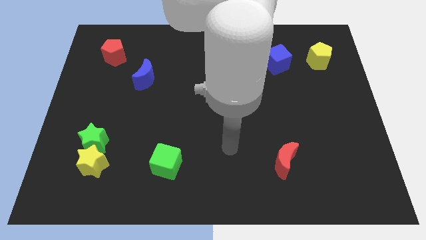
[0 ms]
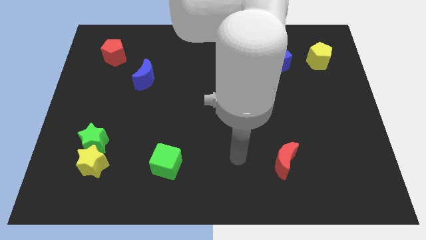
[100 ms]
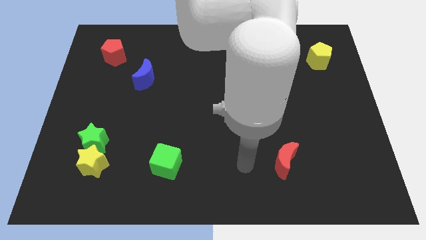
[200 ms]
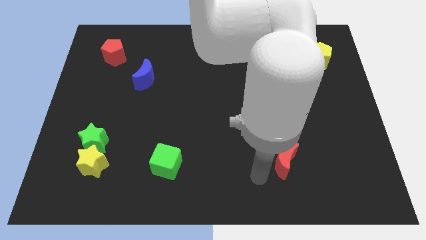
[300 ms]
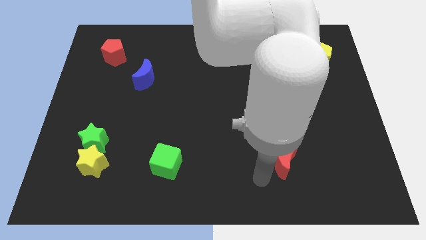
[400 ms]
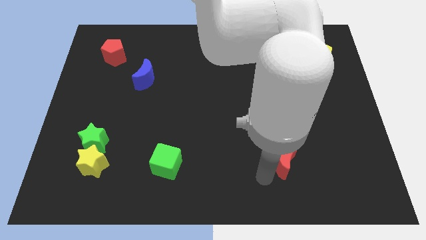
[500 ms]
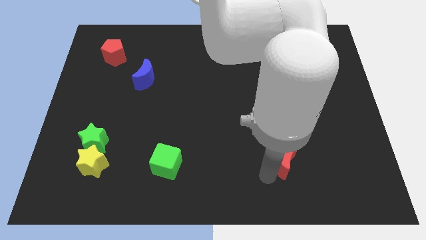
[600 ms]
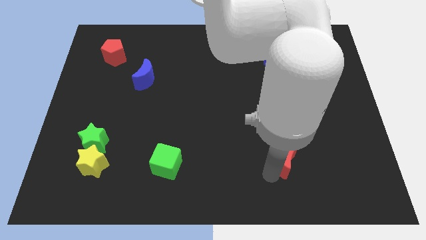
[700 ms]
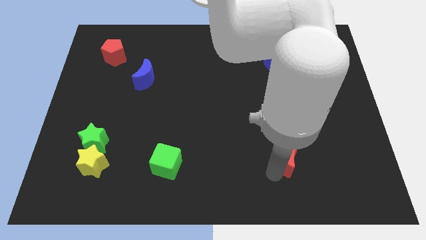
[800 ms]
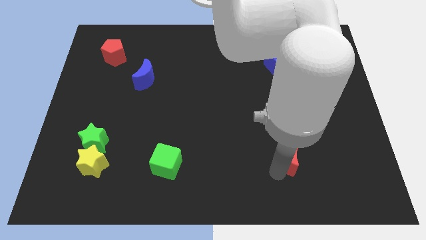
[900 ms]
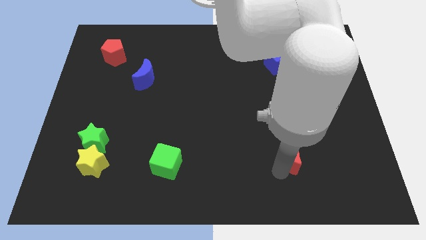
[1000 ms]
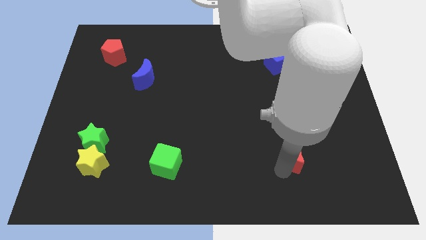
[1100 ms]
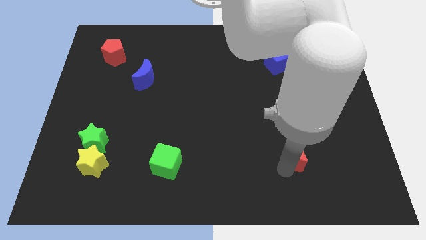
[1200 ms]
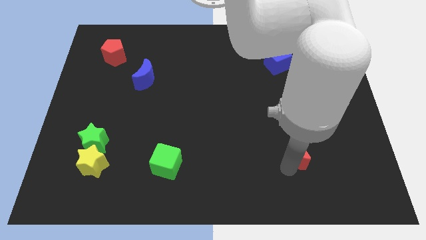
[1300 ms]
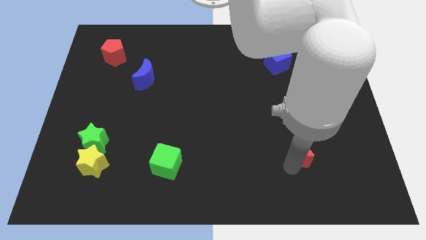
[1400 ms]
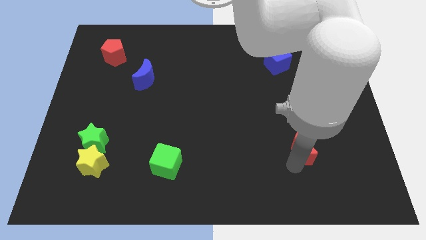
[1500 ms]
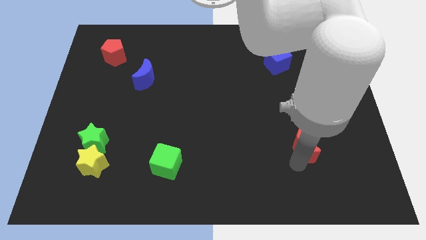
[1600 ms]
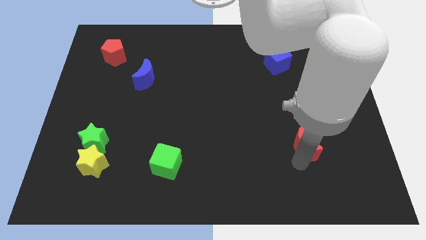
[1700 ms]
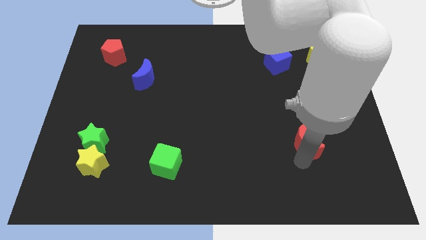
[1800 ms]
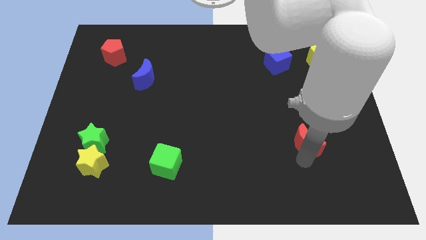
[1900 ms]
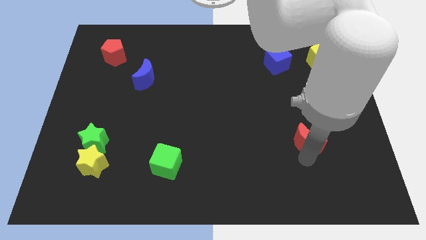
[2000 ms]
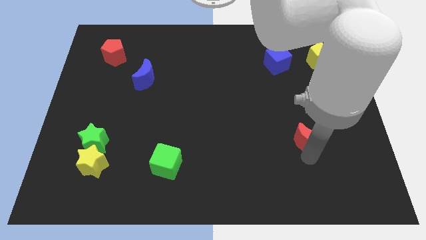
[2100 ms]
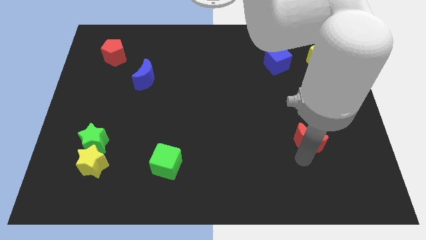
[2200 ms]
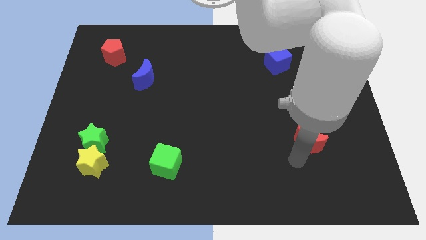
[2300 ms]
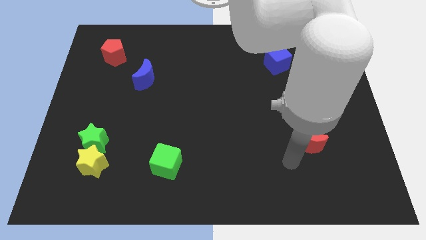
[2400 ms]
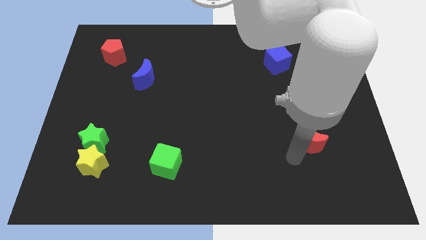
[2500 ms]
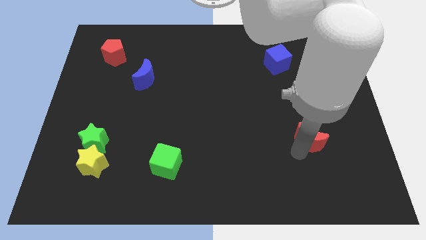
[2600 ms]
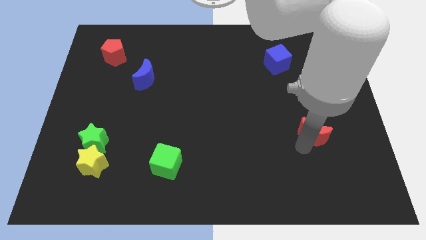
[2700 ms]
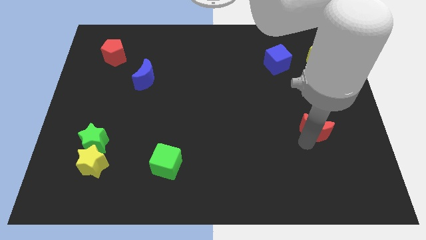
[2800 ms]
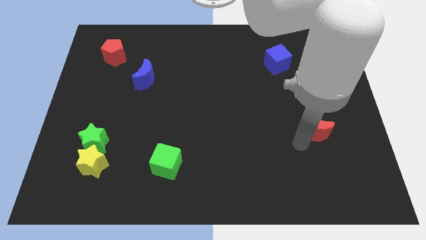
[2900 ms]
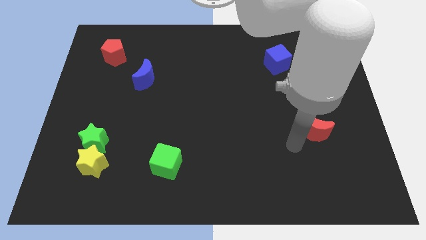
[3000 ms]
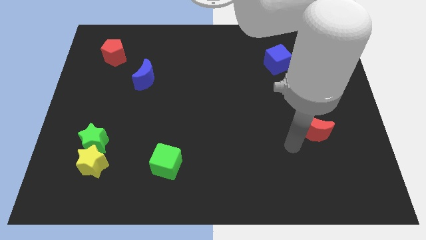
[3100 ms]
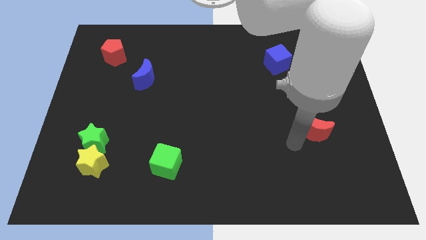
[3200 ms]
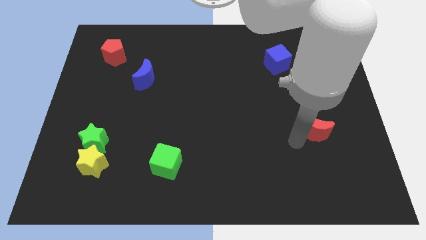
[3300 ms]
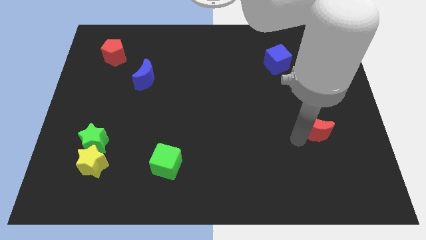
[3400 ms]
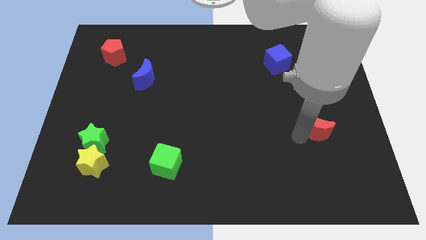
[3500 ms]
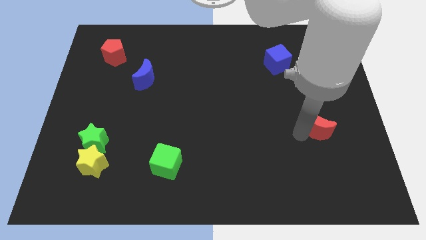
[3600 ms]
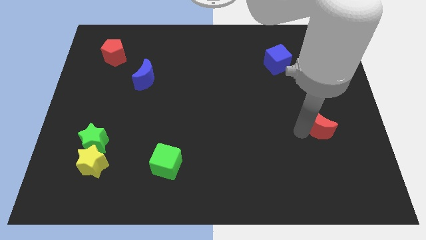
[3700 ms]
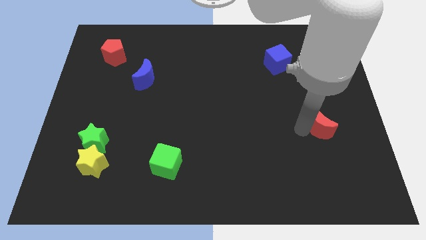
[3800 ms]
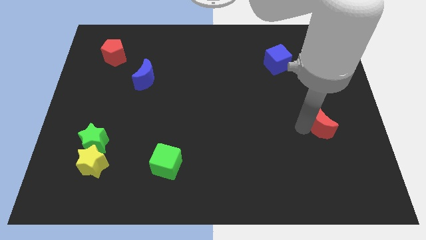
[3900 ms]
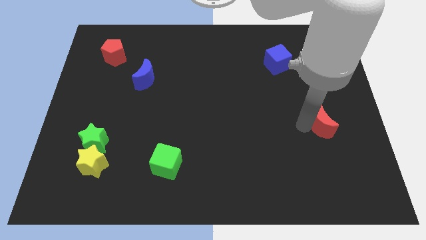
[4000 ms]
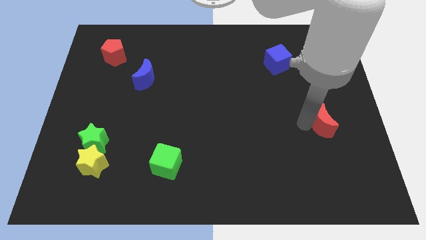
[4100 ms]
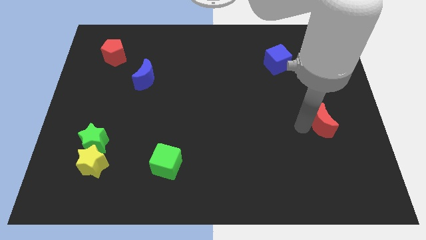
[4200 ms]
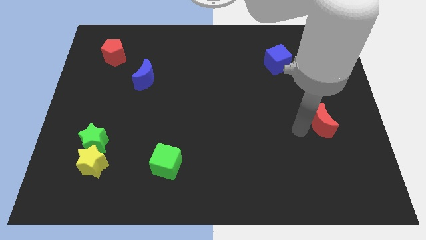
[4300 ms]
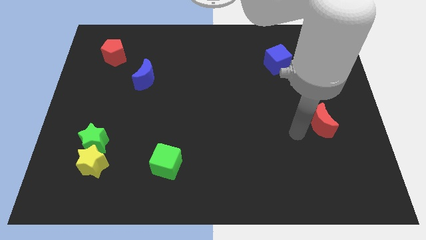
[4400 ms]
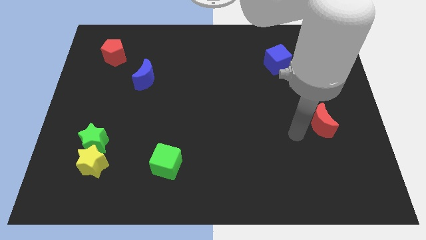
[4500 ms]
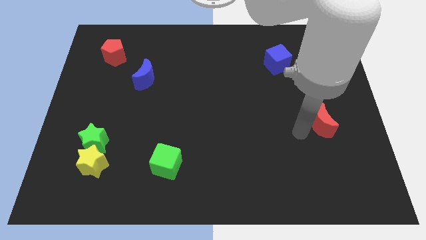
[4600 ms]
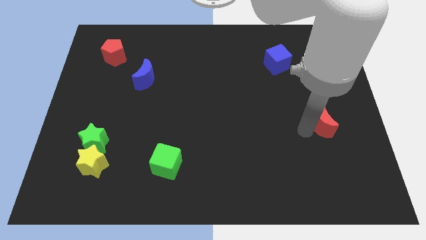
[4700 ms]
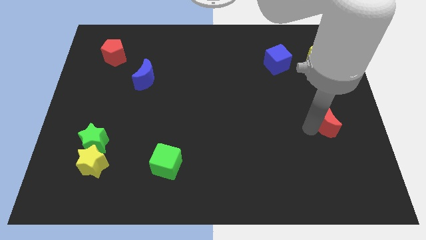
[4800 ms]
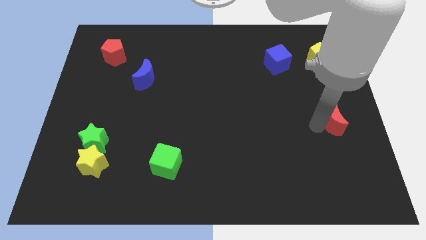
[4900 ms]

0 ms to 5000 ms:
move the red moon to the right side of the board
